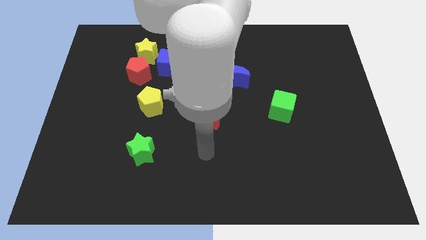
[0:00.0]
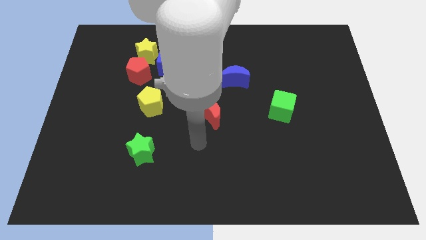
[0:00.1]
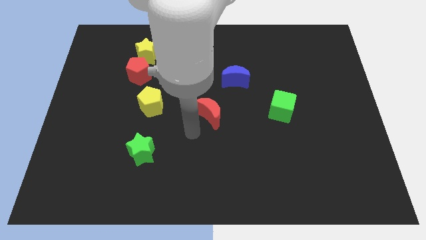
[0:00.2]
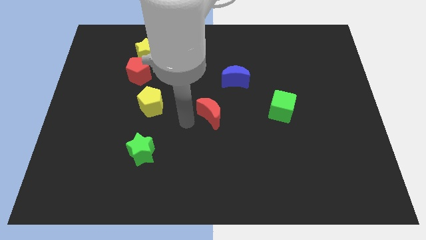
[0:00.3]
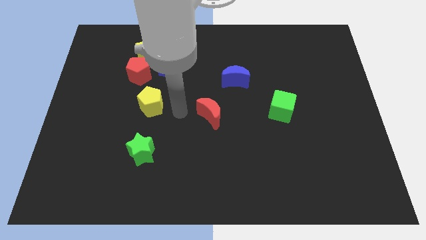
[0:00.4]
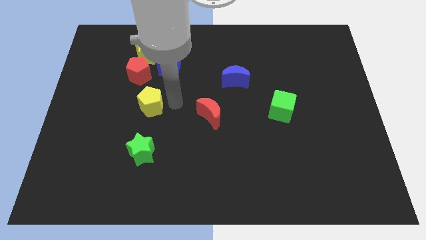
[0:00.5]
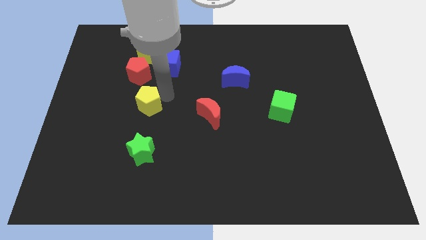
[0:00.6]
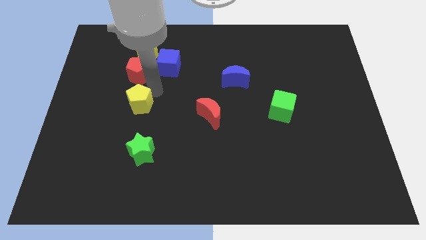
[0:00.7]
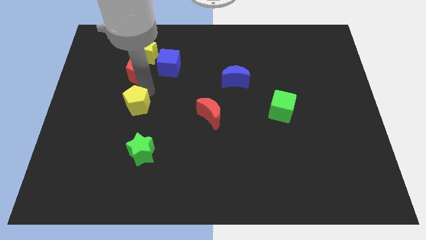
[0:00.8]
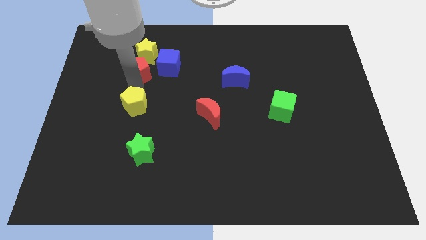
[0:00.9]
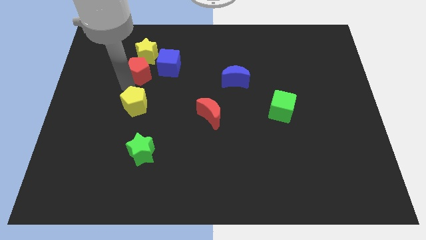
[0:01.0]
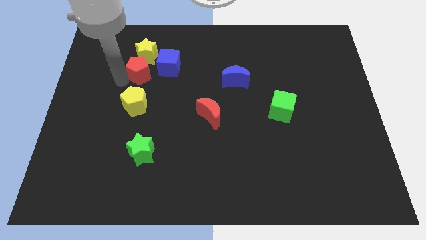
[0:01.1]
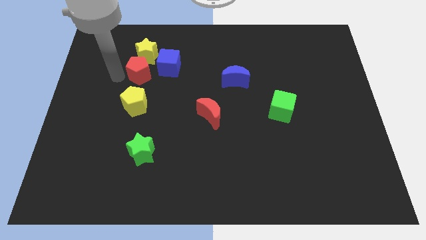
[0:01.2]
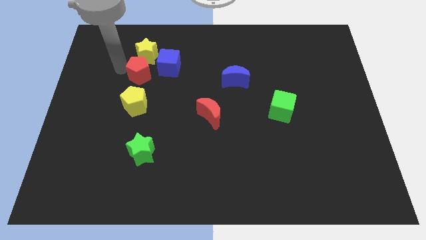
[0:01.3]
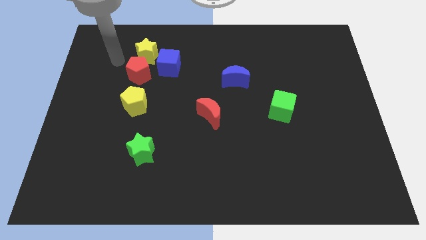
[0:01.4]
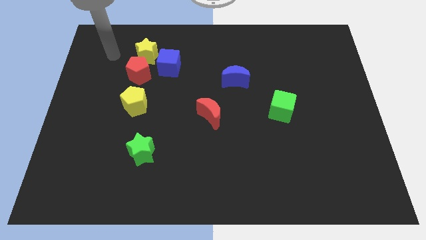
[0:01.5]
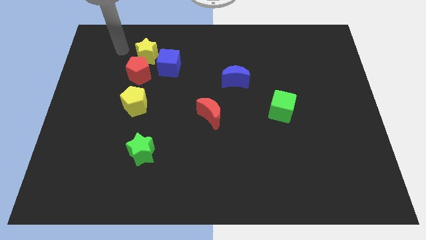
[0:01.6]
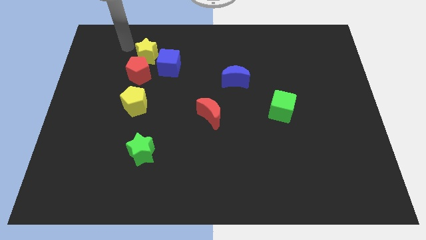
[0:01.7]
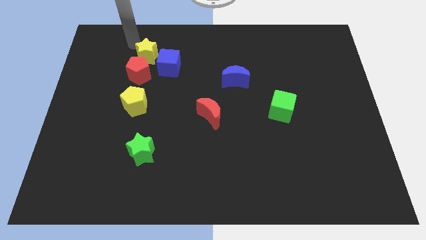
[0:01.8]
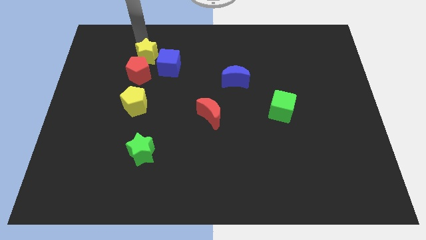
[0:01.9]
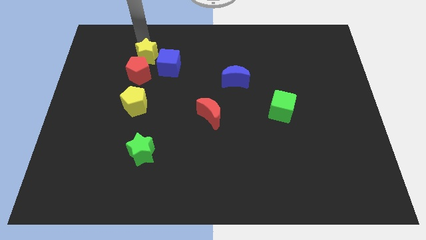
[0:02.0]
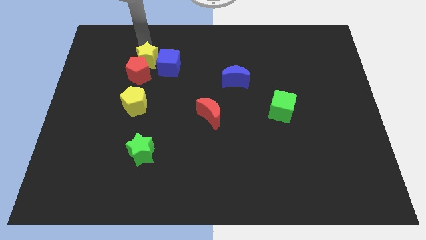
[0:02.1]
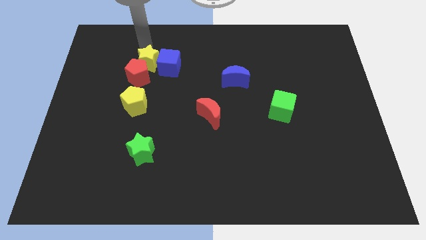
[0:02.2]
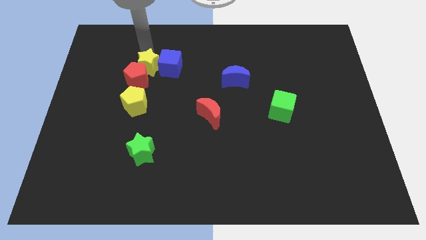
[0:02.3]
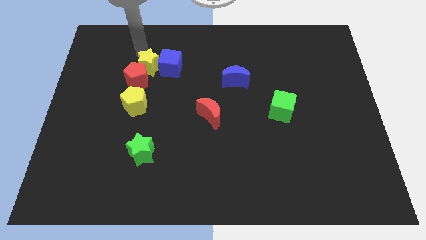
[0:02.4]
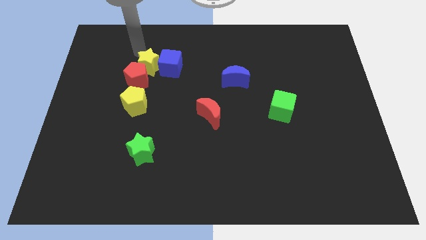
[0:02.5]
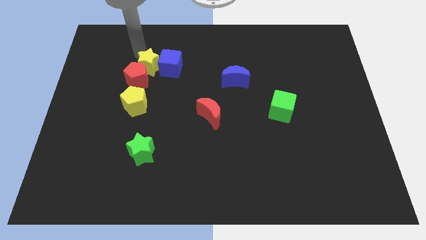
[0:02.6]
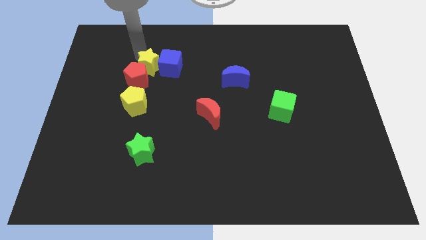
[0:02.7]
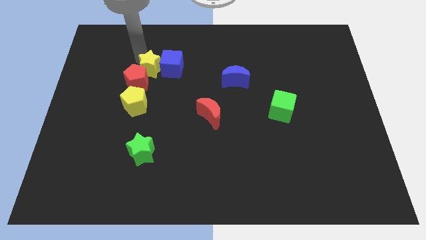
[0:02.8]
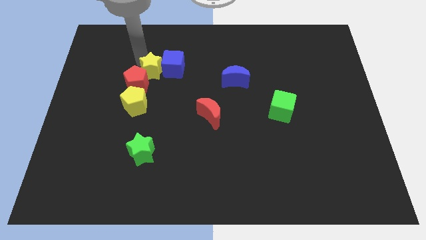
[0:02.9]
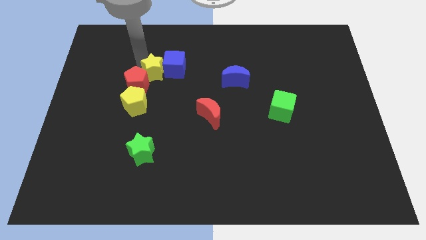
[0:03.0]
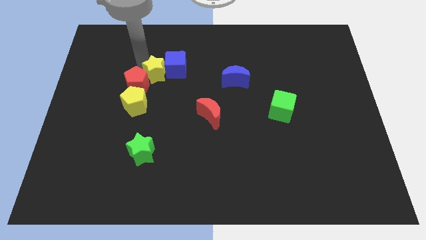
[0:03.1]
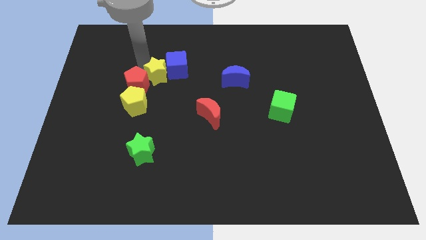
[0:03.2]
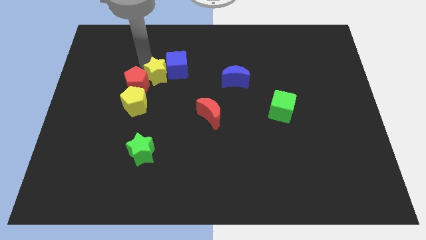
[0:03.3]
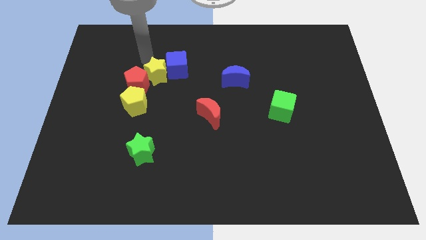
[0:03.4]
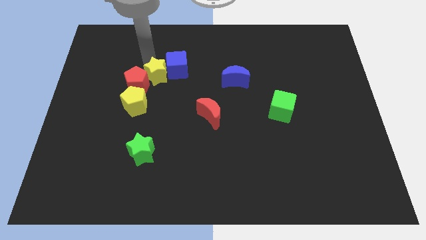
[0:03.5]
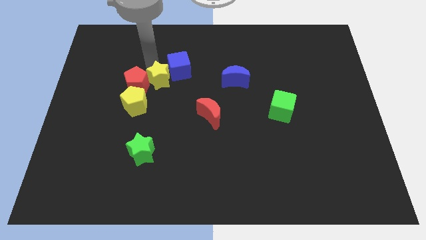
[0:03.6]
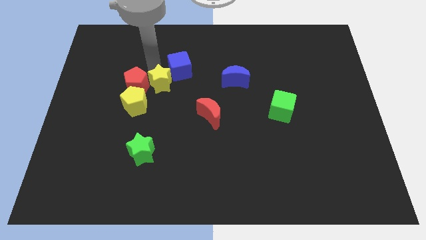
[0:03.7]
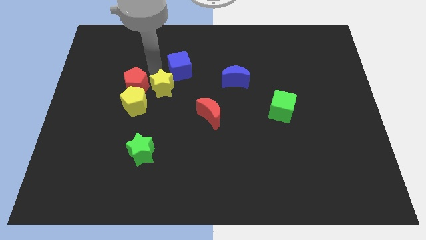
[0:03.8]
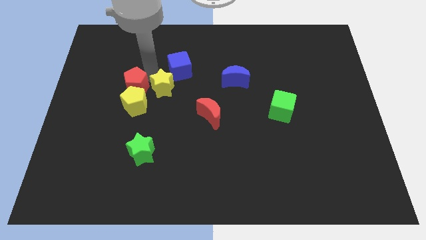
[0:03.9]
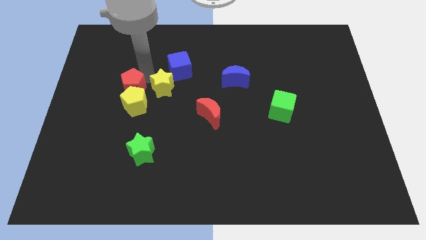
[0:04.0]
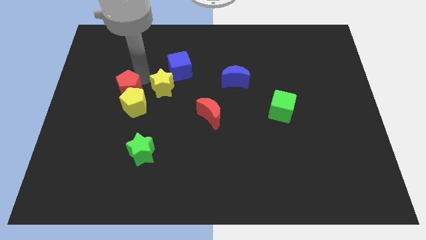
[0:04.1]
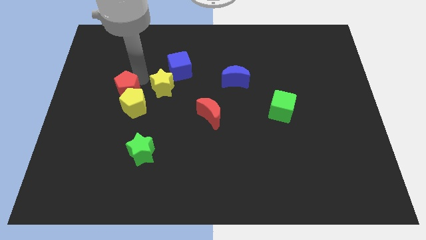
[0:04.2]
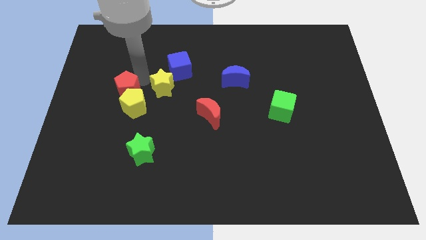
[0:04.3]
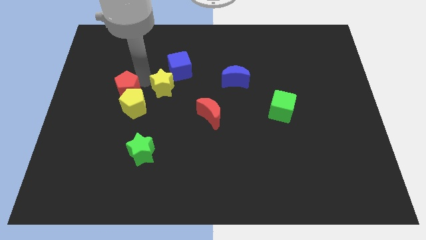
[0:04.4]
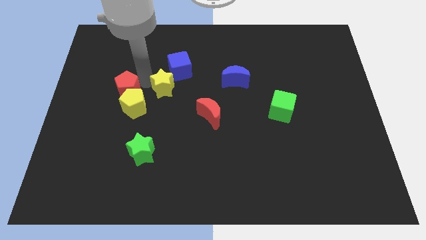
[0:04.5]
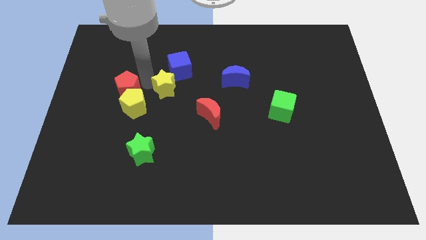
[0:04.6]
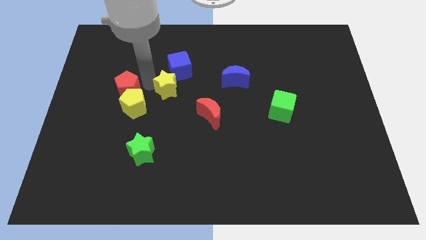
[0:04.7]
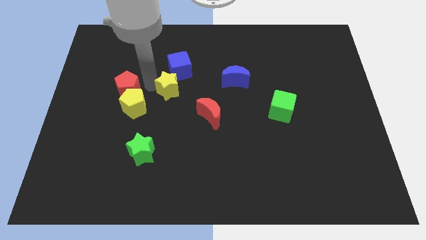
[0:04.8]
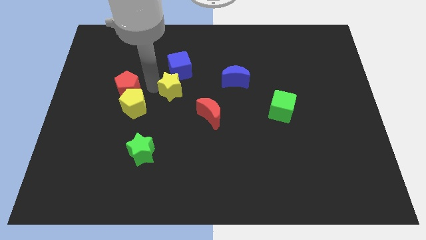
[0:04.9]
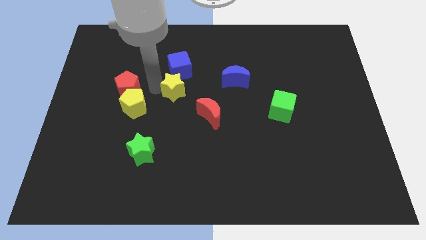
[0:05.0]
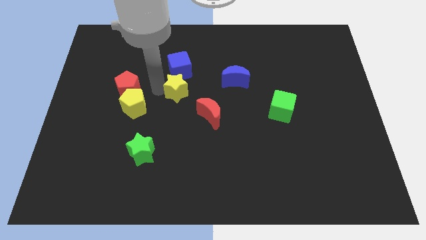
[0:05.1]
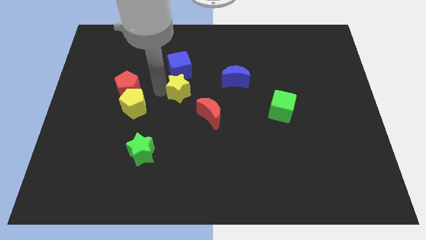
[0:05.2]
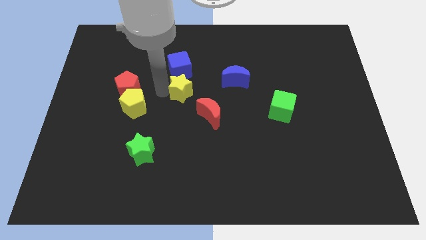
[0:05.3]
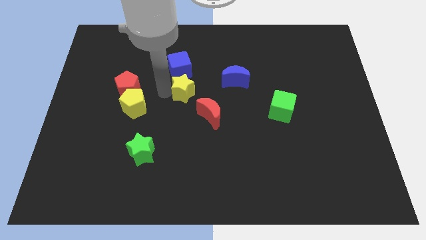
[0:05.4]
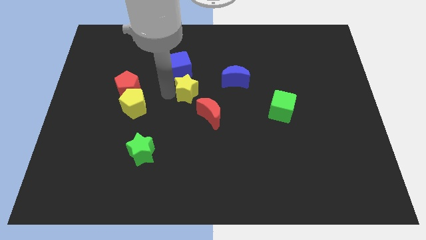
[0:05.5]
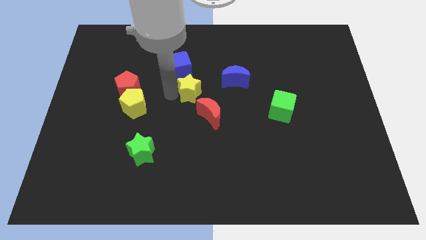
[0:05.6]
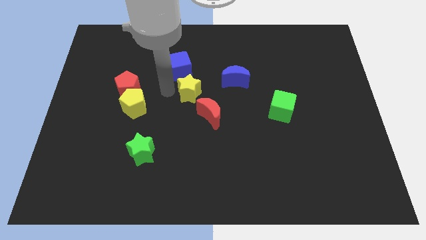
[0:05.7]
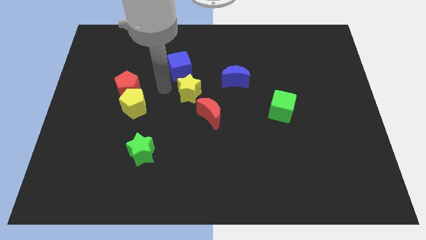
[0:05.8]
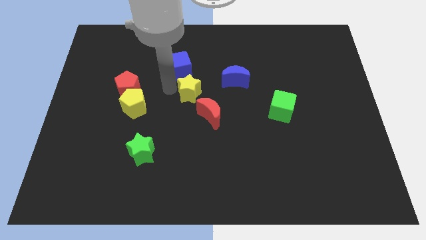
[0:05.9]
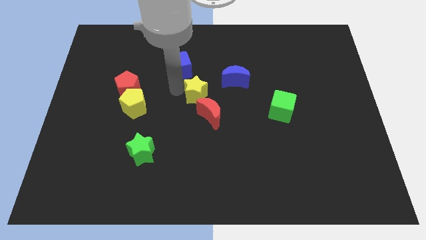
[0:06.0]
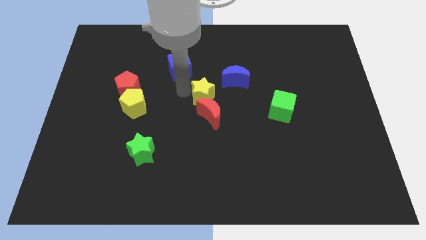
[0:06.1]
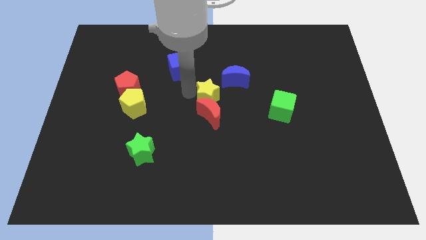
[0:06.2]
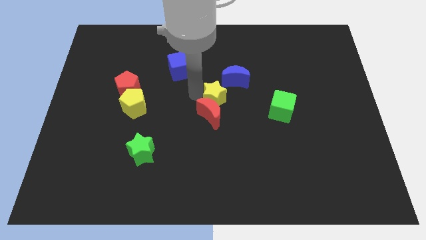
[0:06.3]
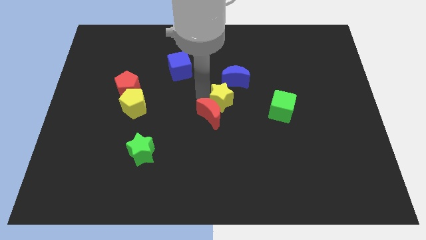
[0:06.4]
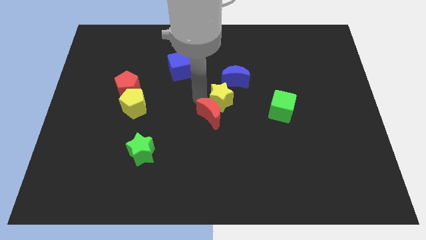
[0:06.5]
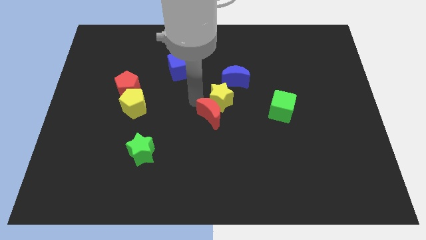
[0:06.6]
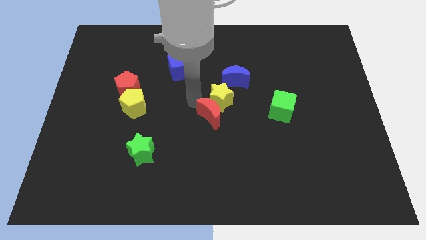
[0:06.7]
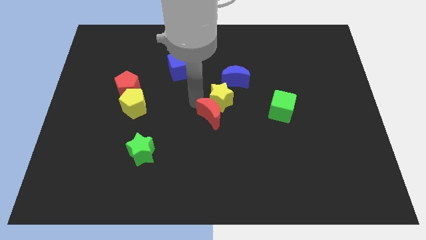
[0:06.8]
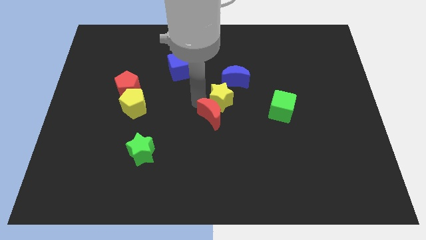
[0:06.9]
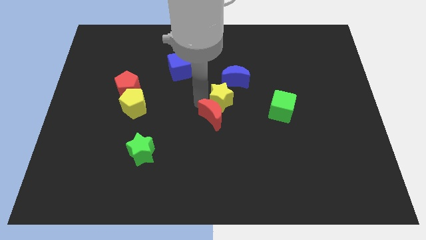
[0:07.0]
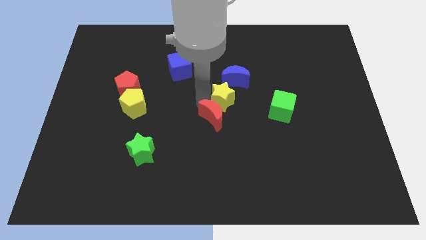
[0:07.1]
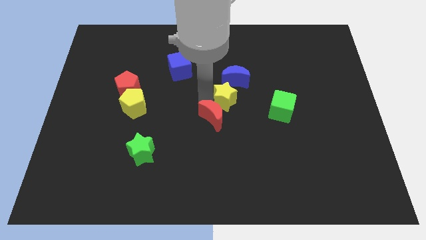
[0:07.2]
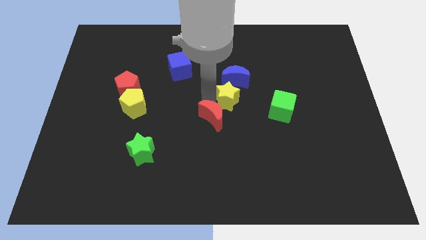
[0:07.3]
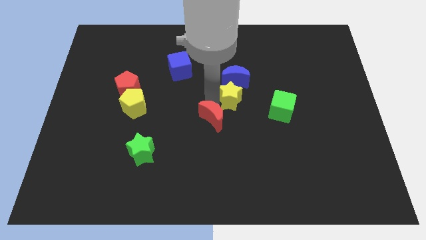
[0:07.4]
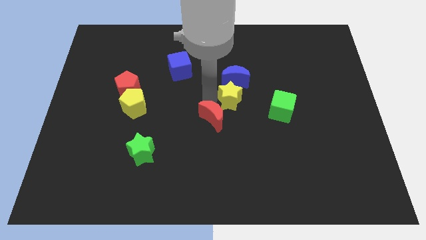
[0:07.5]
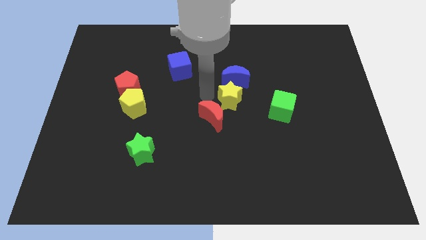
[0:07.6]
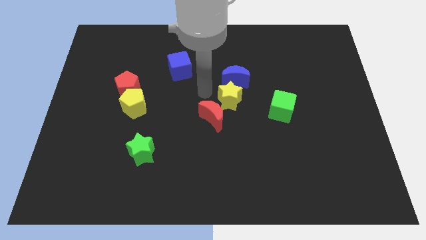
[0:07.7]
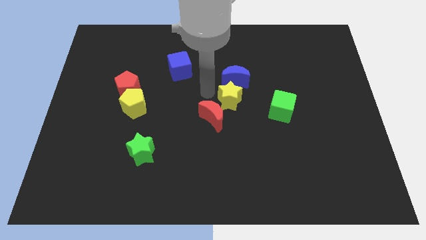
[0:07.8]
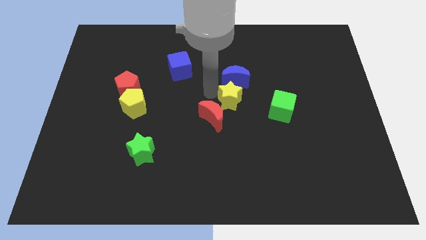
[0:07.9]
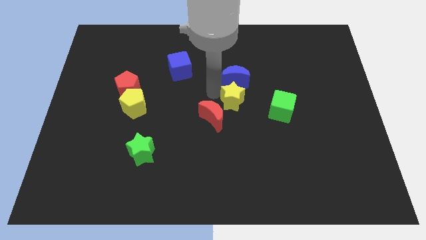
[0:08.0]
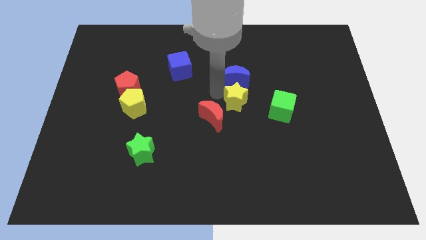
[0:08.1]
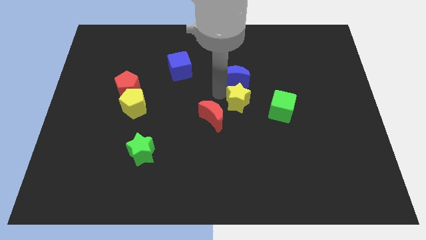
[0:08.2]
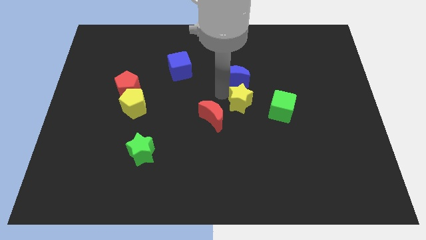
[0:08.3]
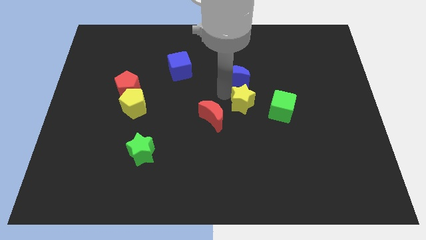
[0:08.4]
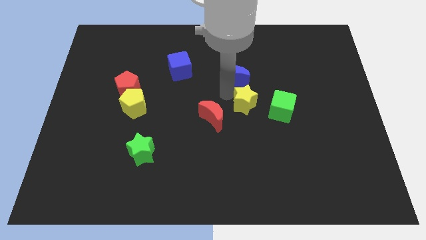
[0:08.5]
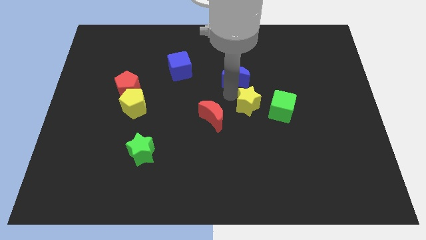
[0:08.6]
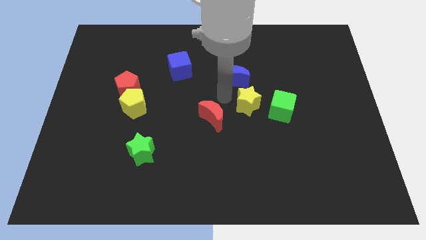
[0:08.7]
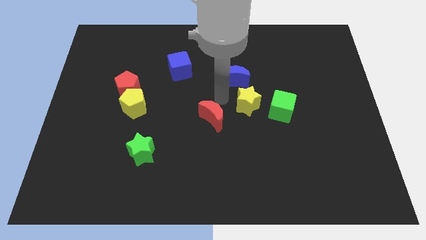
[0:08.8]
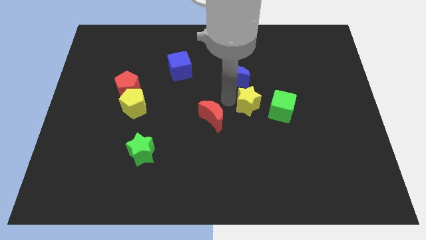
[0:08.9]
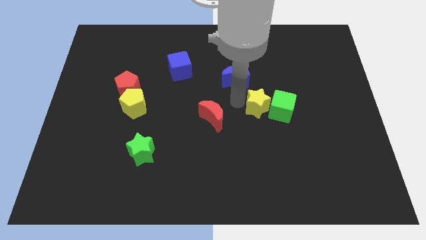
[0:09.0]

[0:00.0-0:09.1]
slide the yellow star to the green cube
